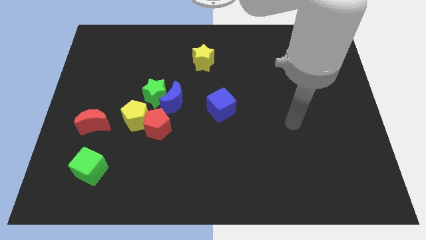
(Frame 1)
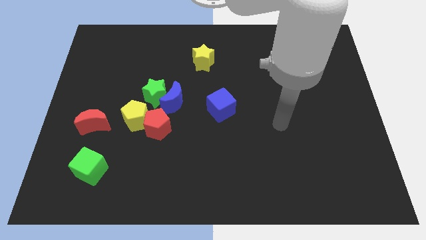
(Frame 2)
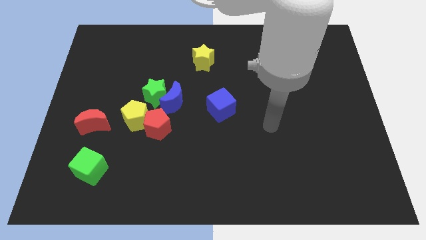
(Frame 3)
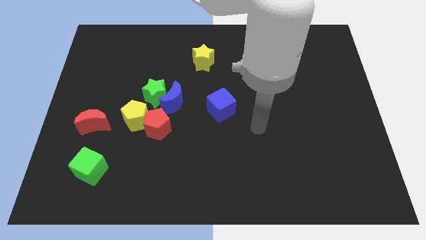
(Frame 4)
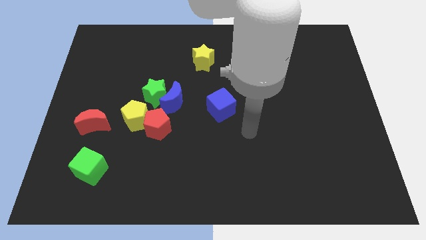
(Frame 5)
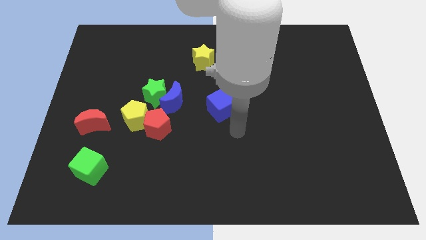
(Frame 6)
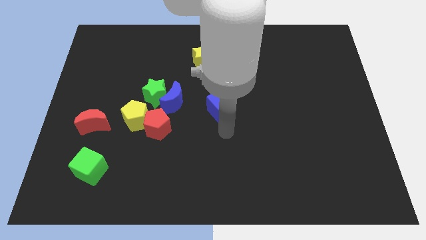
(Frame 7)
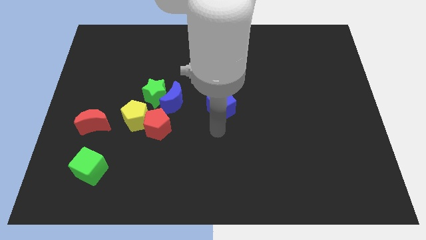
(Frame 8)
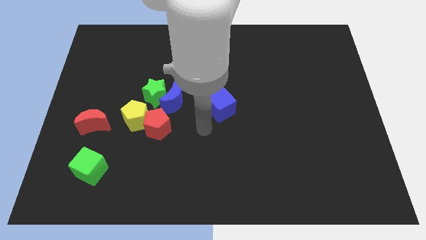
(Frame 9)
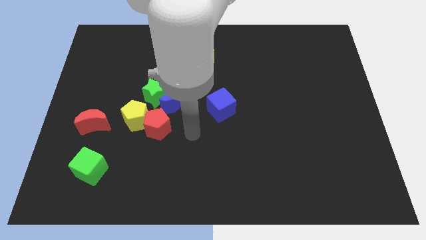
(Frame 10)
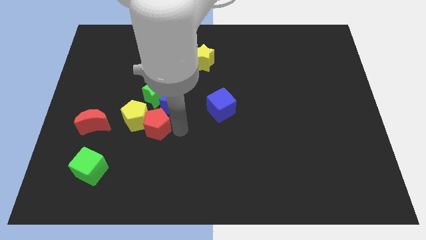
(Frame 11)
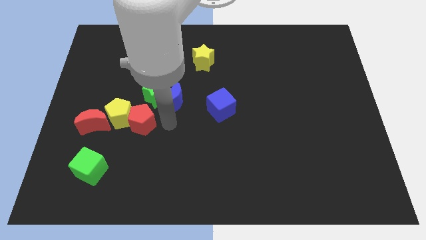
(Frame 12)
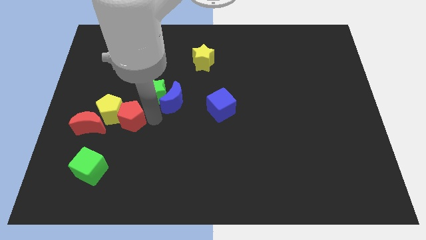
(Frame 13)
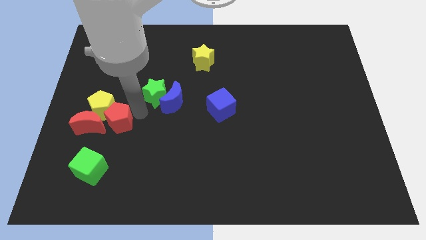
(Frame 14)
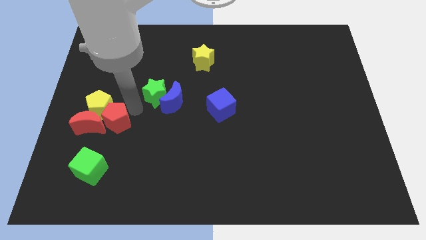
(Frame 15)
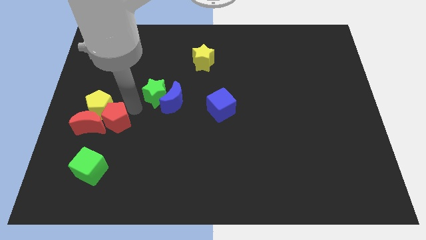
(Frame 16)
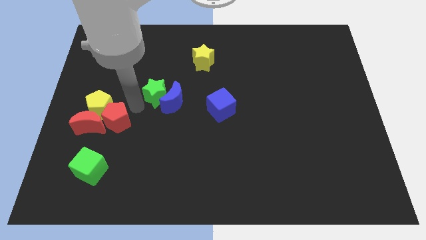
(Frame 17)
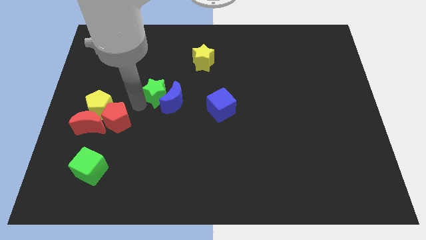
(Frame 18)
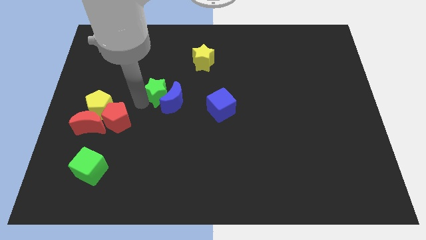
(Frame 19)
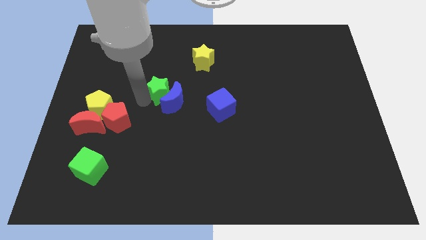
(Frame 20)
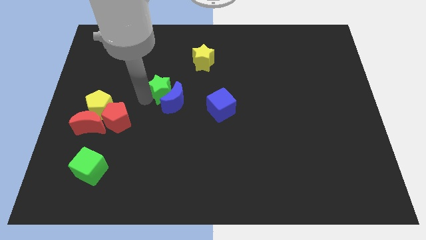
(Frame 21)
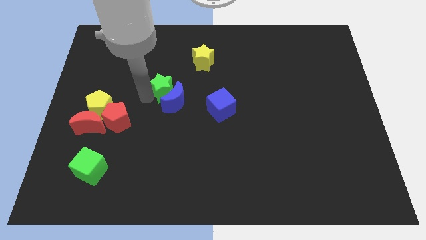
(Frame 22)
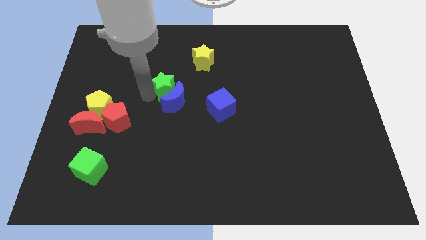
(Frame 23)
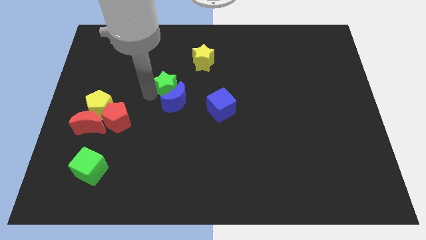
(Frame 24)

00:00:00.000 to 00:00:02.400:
move the green star away from the group of blocks

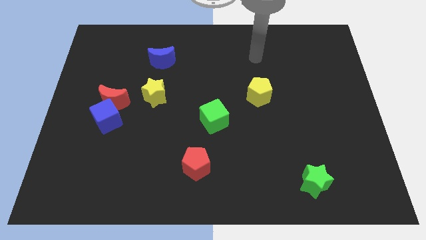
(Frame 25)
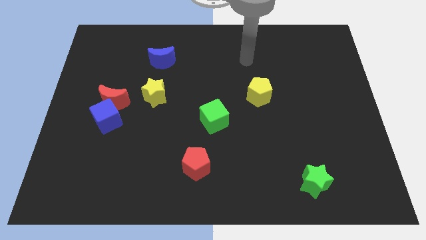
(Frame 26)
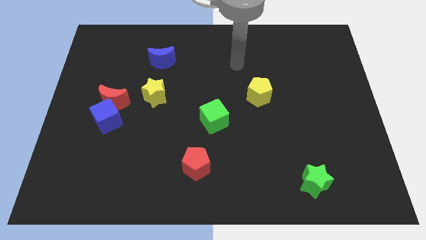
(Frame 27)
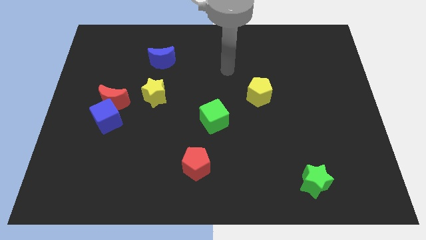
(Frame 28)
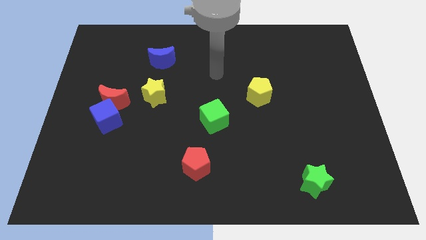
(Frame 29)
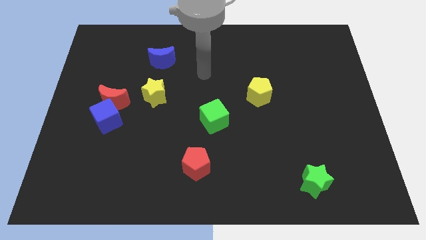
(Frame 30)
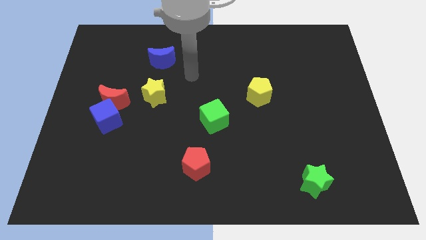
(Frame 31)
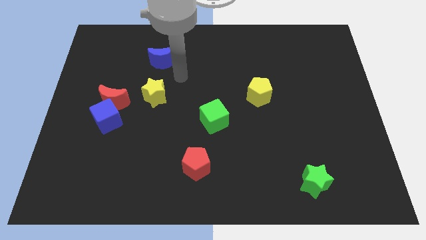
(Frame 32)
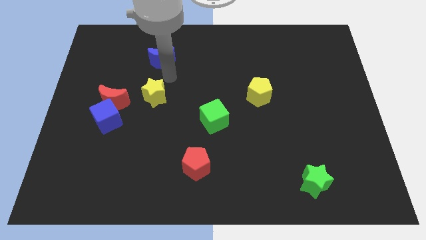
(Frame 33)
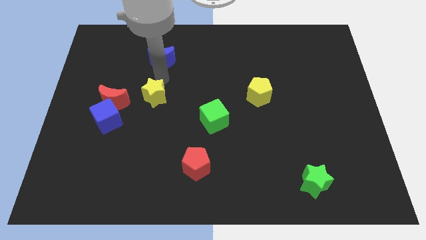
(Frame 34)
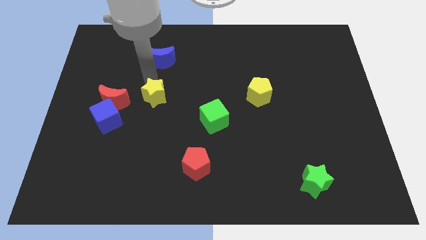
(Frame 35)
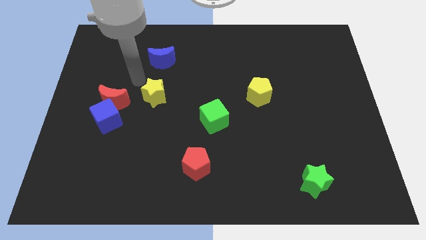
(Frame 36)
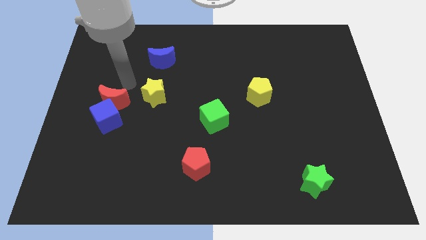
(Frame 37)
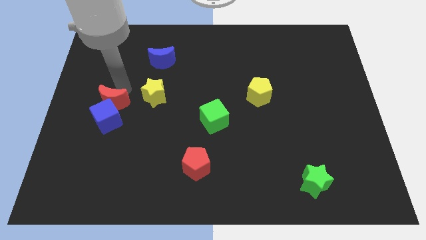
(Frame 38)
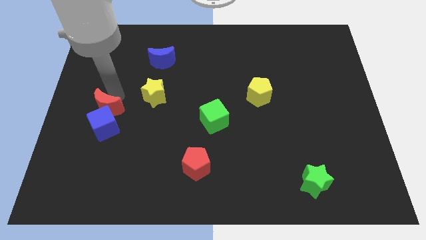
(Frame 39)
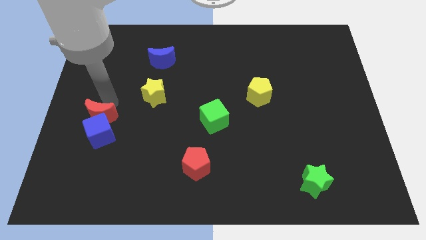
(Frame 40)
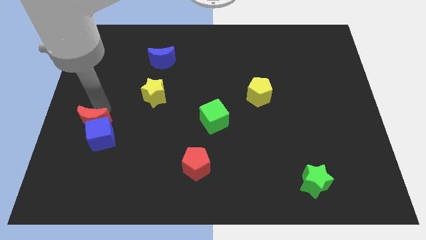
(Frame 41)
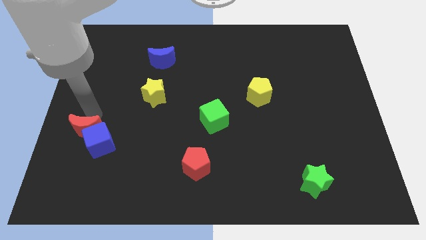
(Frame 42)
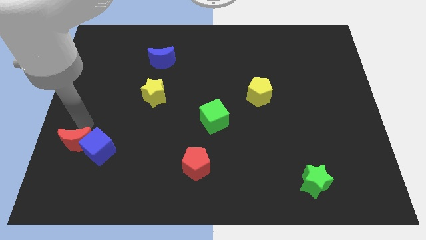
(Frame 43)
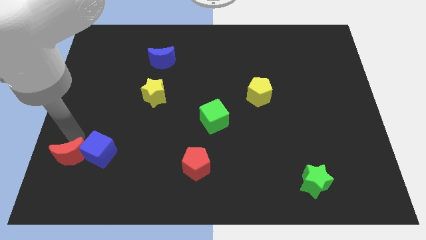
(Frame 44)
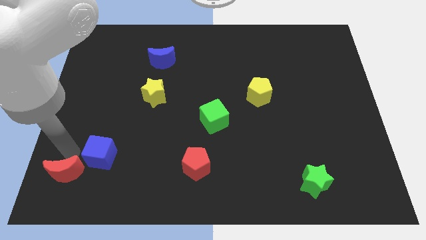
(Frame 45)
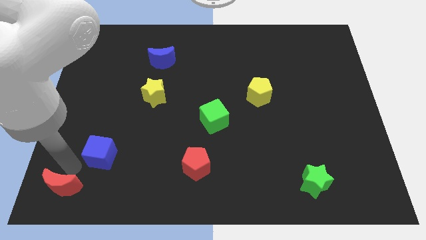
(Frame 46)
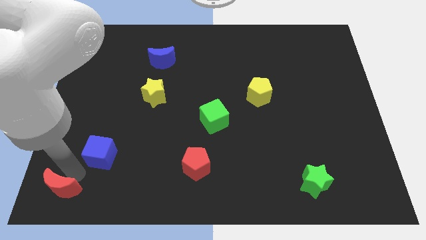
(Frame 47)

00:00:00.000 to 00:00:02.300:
move the blue cube away from the red moon

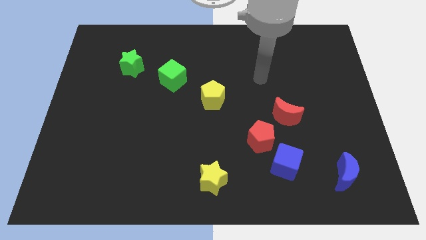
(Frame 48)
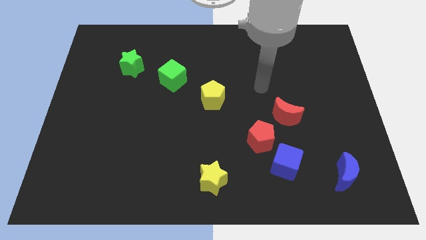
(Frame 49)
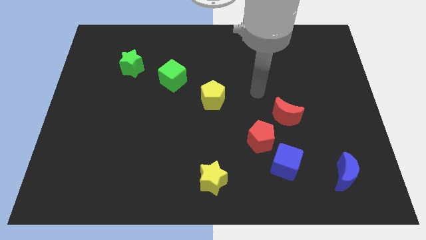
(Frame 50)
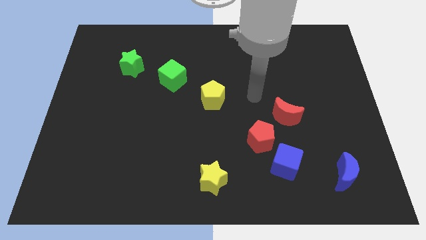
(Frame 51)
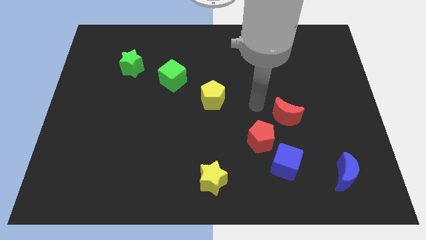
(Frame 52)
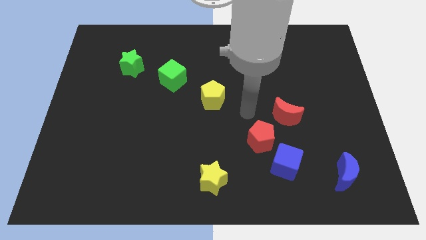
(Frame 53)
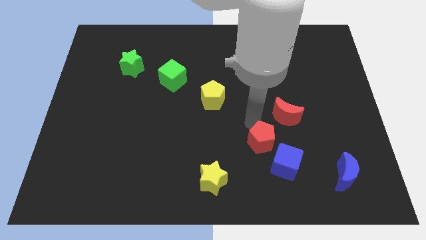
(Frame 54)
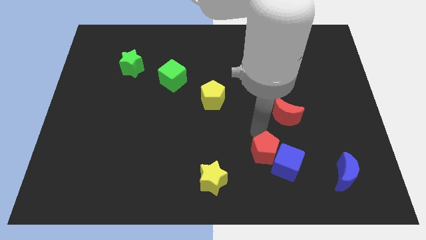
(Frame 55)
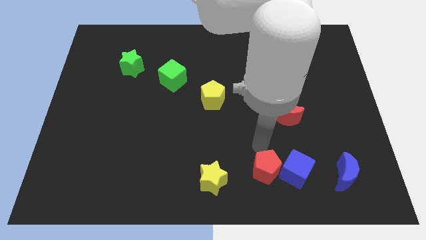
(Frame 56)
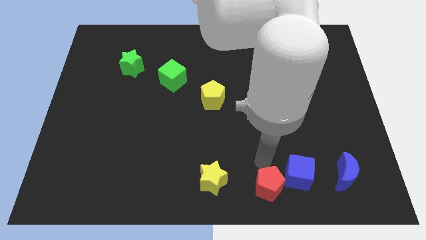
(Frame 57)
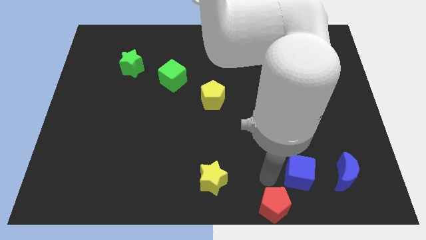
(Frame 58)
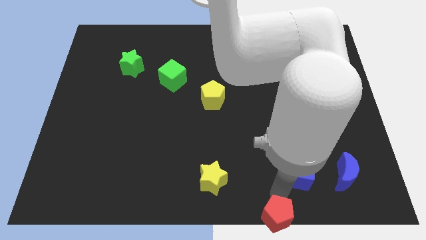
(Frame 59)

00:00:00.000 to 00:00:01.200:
separate the blue cube from the red pentagon

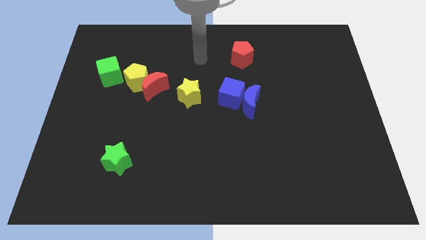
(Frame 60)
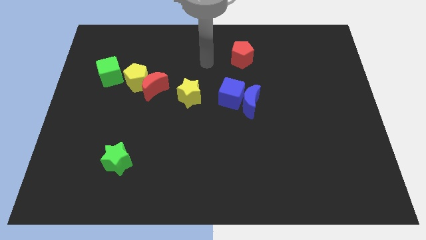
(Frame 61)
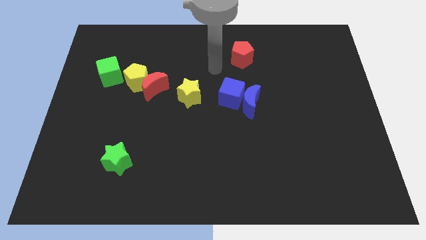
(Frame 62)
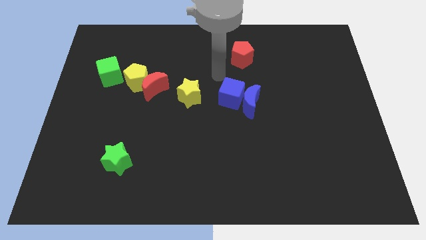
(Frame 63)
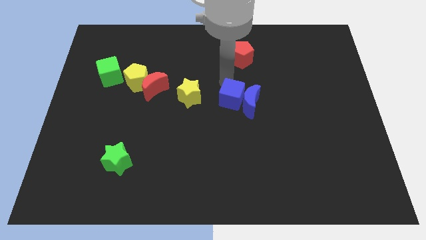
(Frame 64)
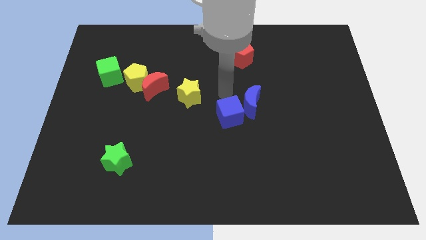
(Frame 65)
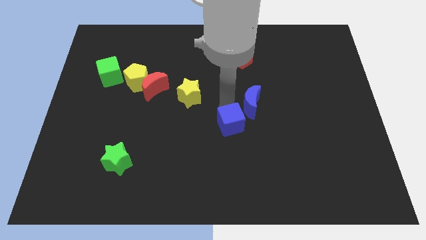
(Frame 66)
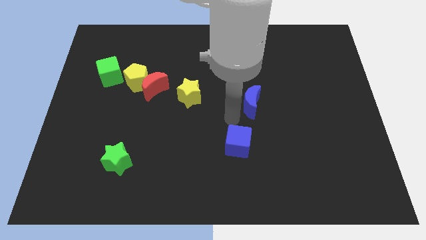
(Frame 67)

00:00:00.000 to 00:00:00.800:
move the blue moon away from the blue cube

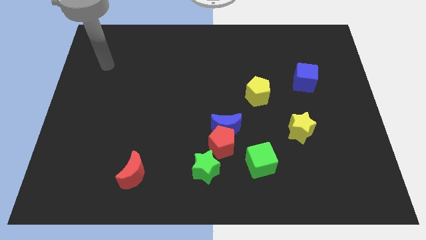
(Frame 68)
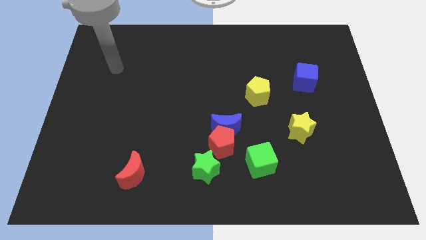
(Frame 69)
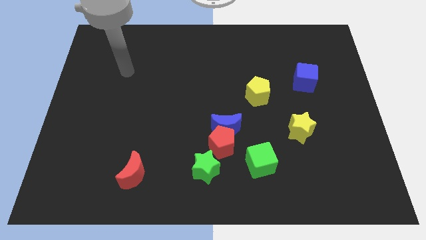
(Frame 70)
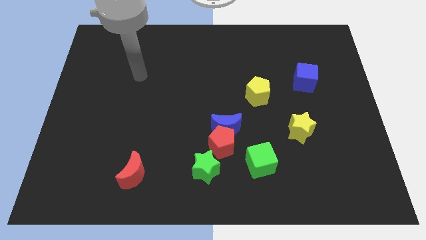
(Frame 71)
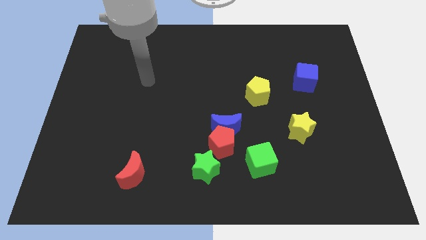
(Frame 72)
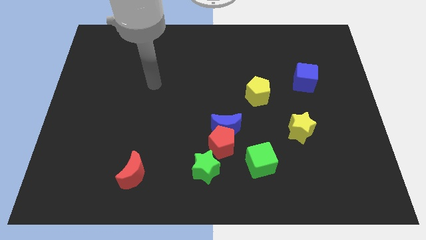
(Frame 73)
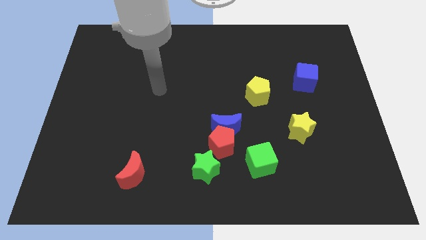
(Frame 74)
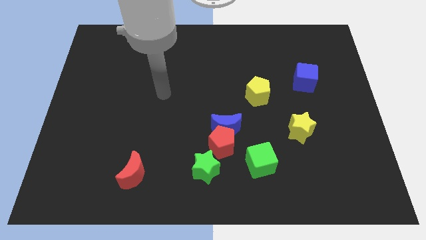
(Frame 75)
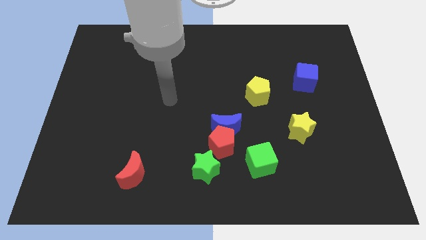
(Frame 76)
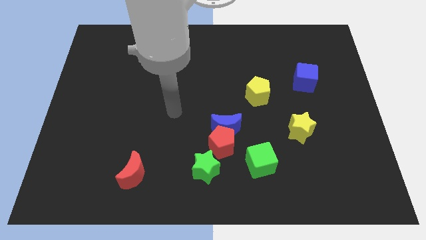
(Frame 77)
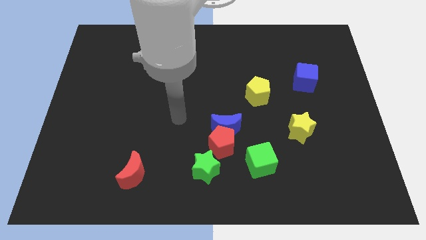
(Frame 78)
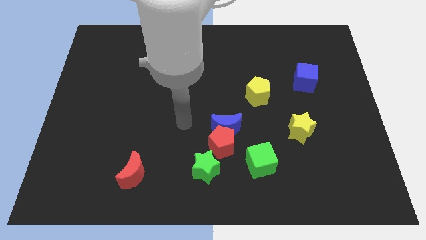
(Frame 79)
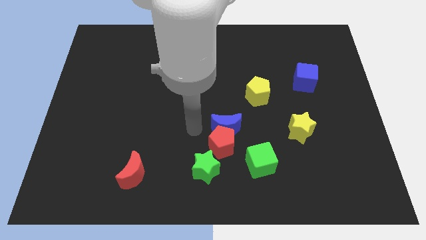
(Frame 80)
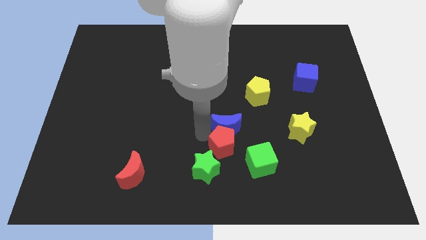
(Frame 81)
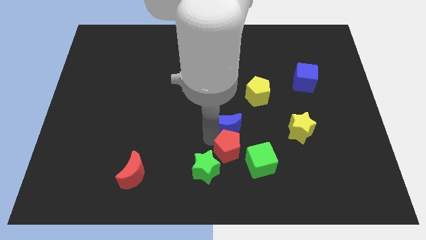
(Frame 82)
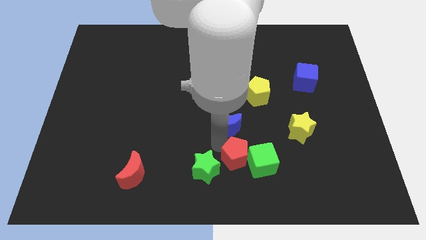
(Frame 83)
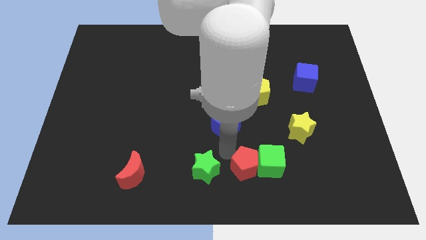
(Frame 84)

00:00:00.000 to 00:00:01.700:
pull the blue moon apart from the red pentagon

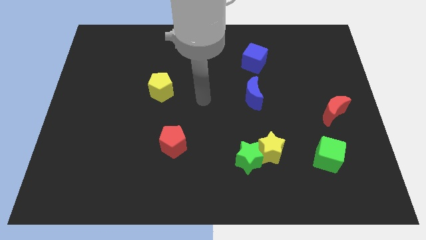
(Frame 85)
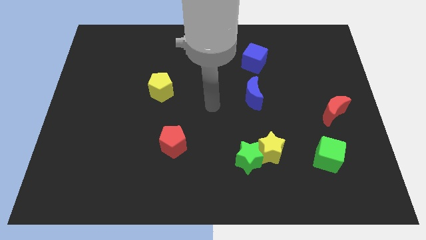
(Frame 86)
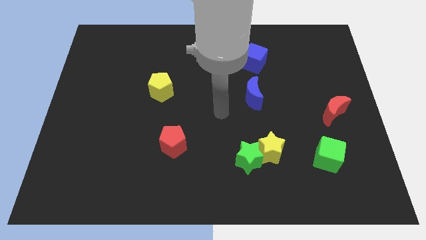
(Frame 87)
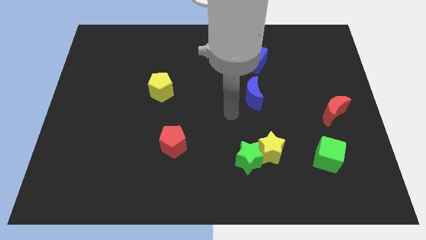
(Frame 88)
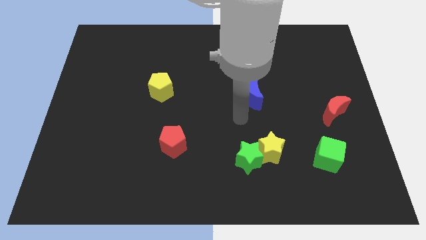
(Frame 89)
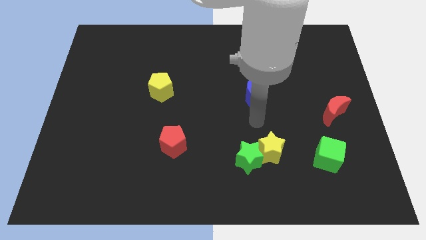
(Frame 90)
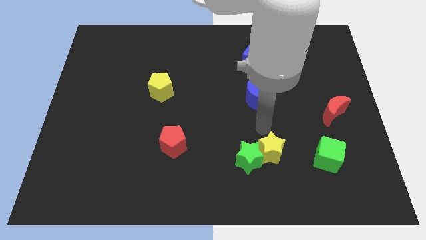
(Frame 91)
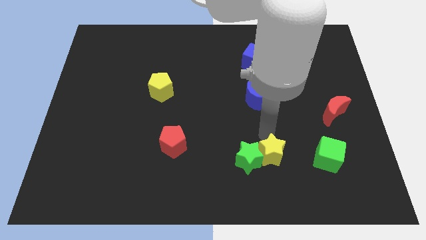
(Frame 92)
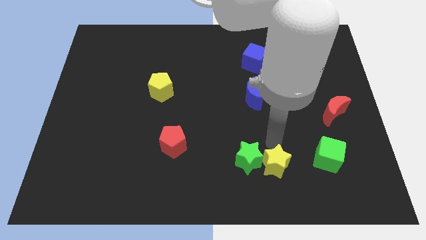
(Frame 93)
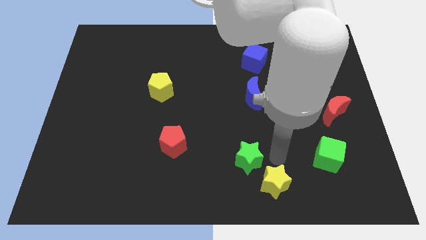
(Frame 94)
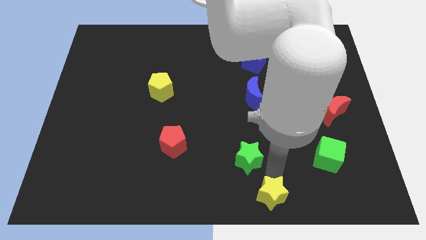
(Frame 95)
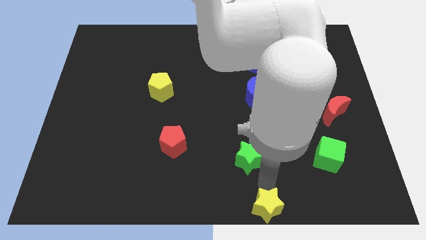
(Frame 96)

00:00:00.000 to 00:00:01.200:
pull the green star apart from the yellow star
